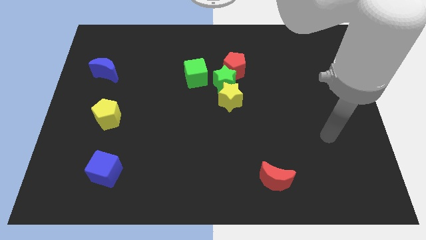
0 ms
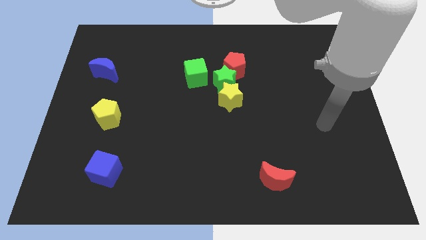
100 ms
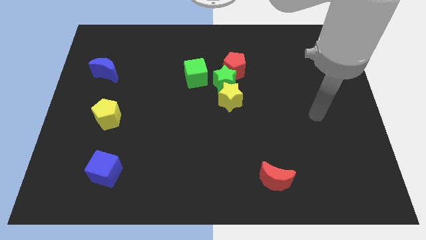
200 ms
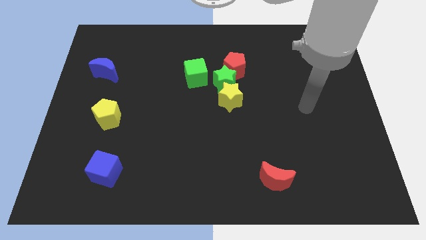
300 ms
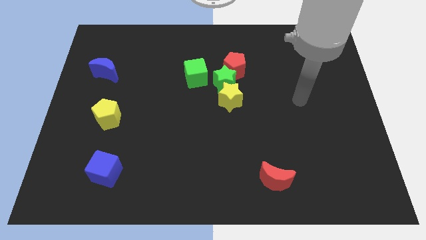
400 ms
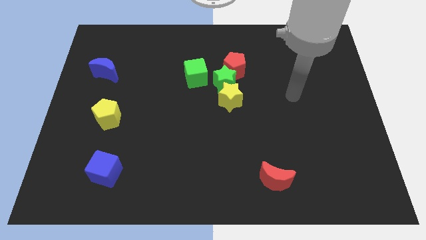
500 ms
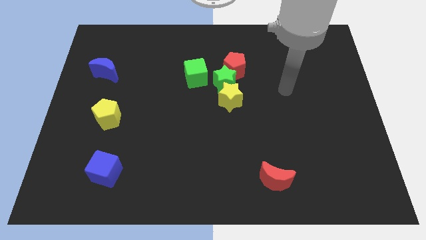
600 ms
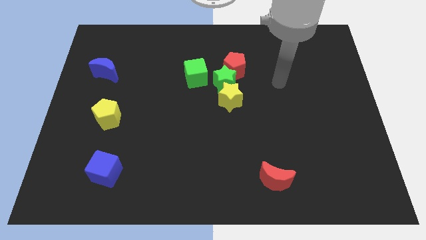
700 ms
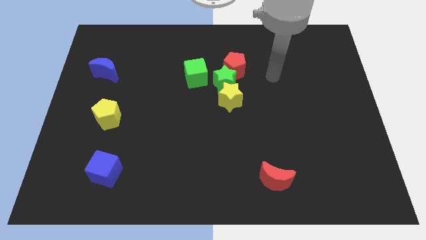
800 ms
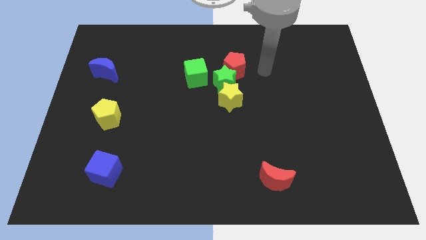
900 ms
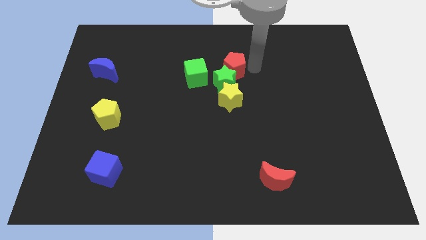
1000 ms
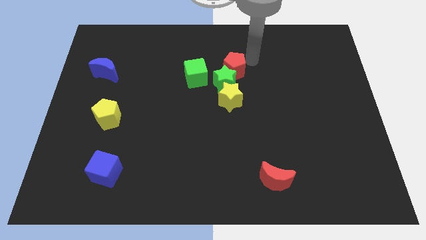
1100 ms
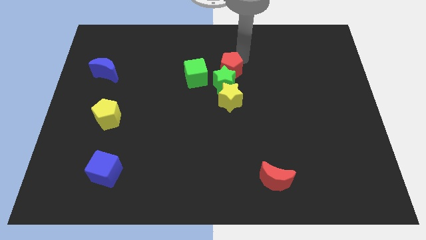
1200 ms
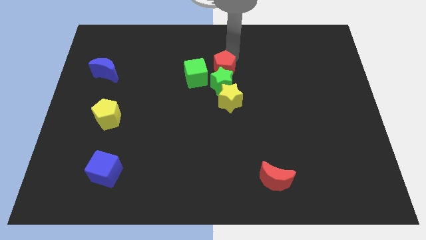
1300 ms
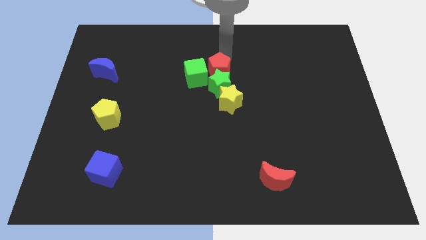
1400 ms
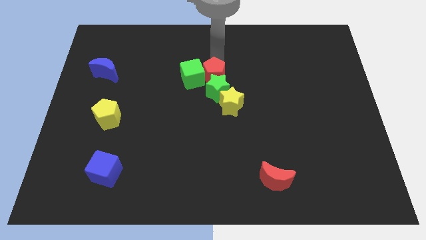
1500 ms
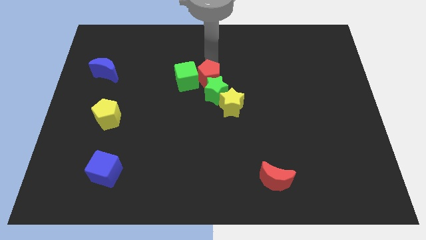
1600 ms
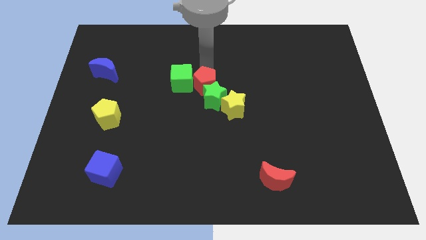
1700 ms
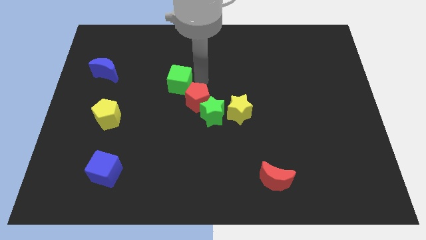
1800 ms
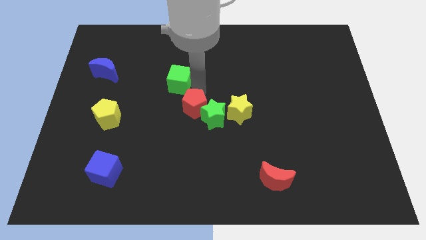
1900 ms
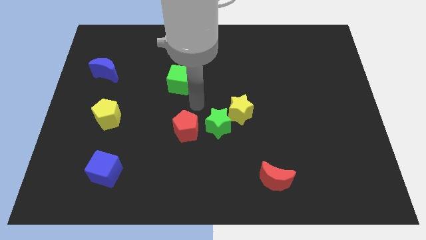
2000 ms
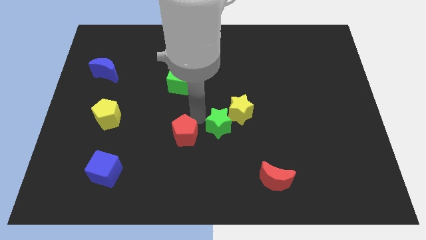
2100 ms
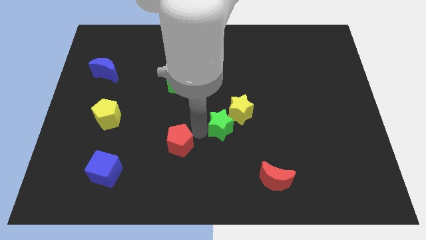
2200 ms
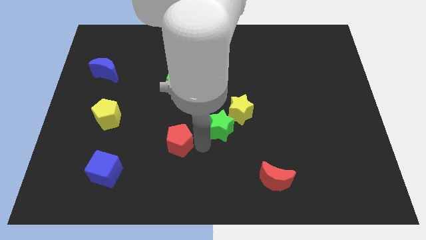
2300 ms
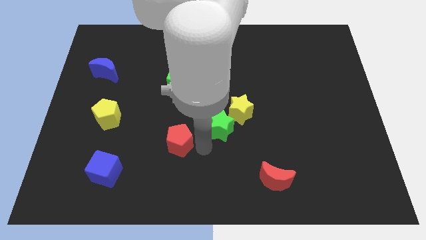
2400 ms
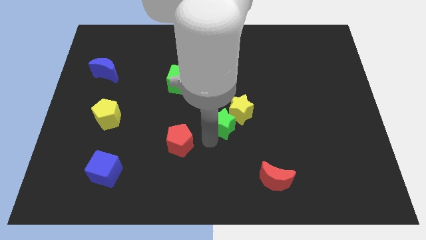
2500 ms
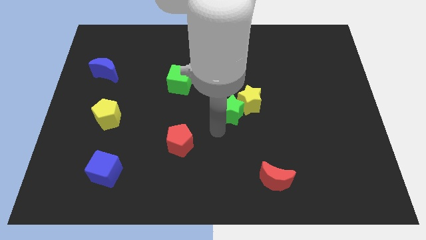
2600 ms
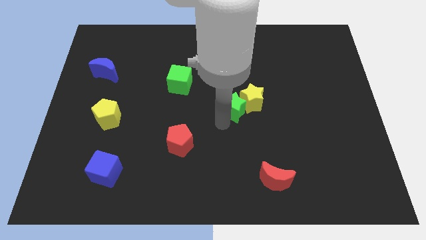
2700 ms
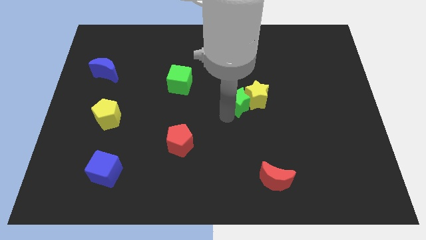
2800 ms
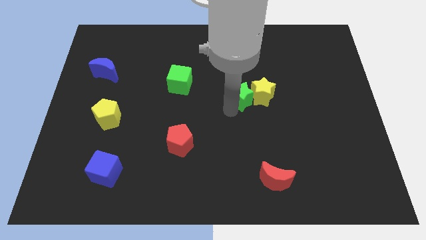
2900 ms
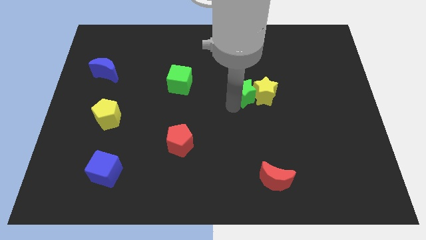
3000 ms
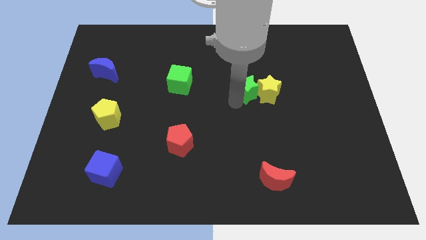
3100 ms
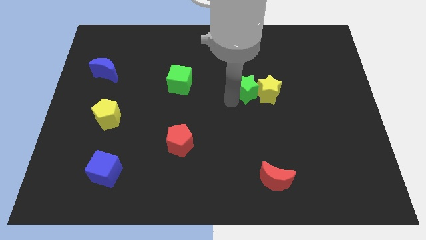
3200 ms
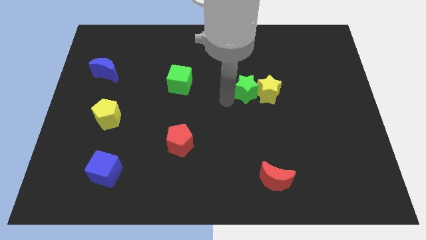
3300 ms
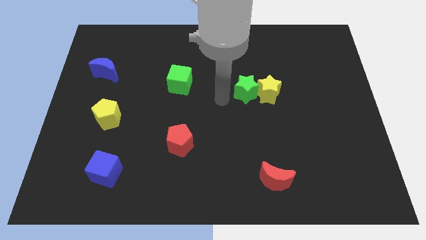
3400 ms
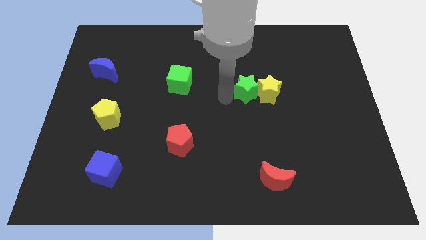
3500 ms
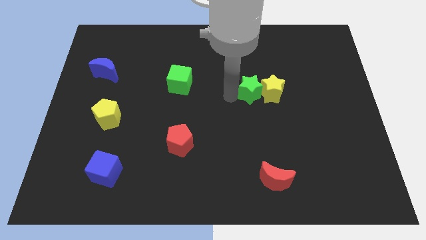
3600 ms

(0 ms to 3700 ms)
move the green star away from the yellow star, red pentagon, and green cube

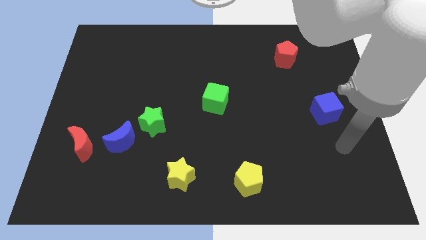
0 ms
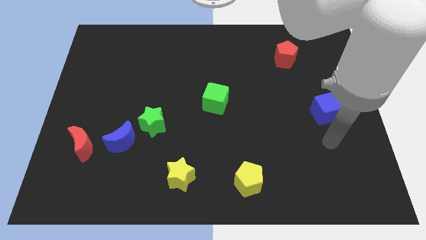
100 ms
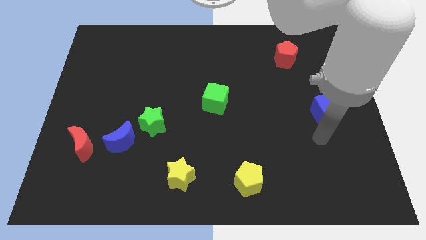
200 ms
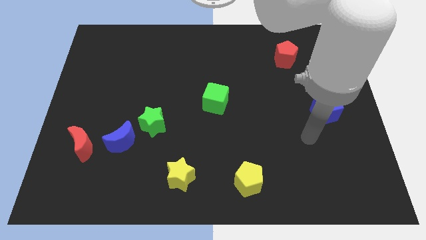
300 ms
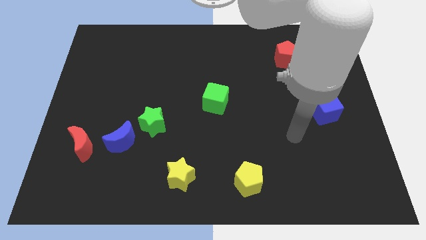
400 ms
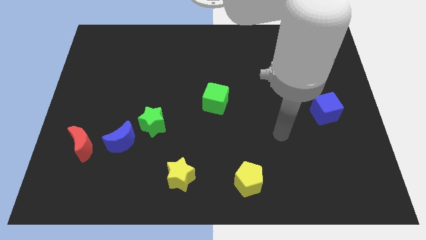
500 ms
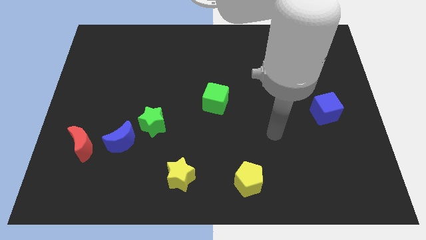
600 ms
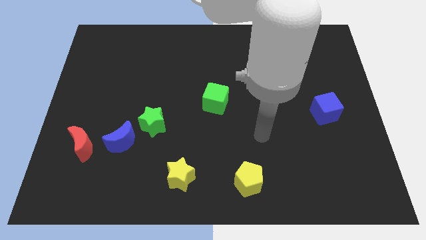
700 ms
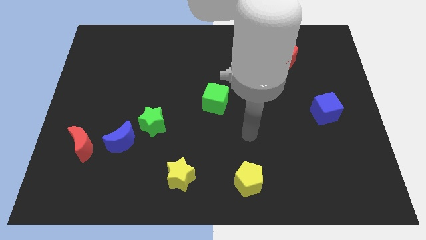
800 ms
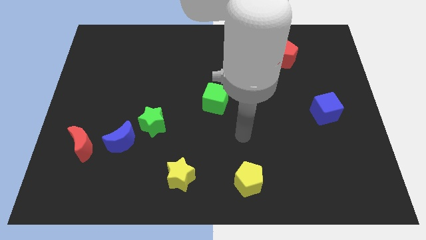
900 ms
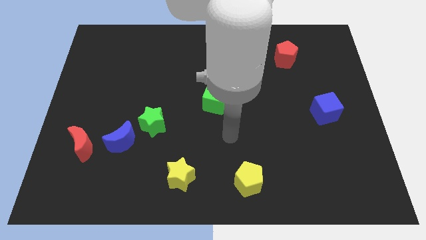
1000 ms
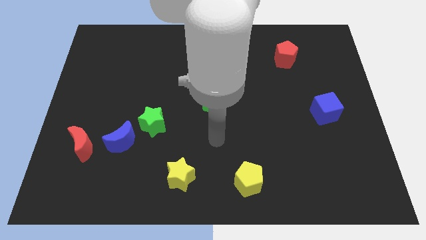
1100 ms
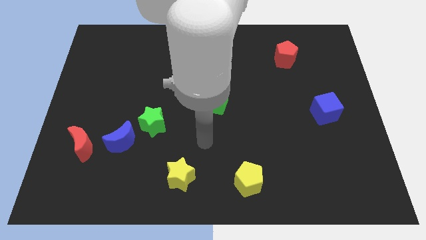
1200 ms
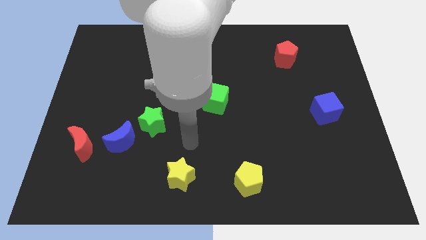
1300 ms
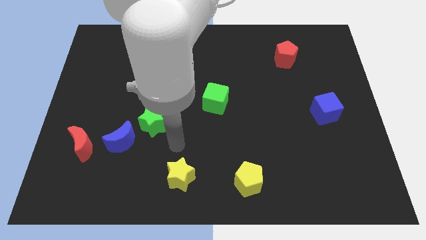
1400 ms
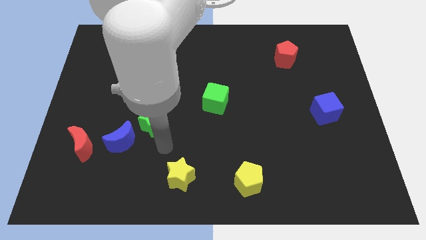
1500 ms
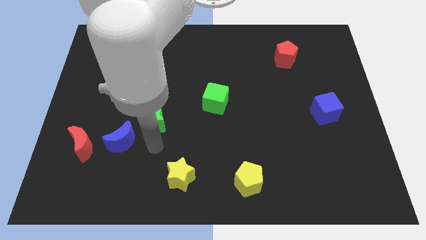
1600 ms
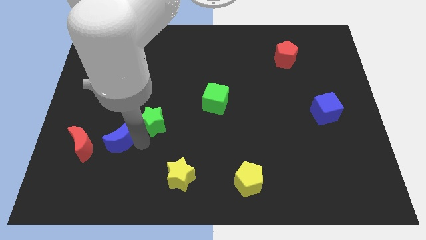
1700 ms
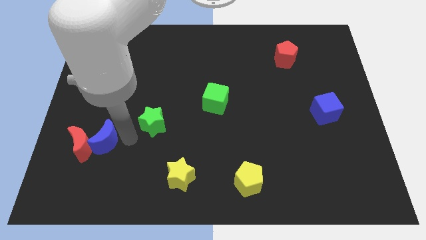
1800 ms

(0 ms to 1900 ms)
move the green star away from the blue moon

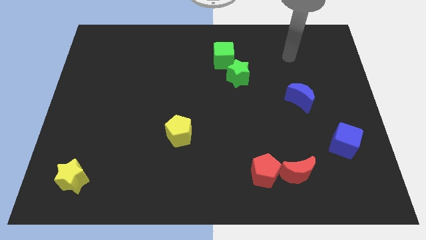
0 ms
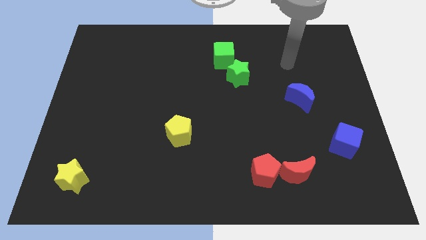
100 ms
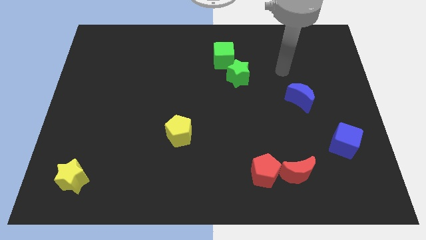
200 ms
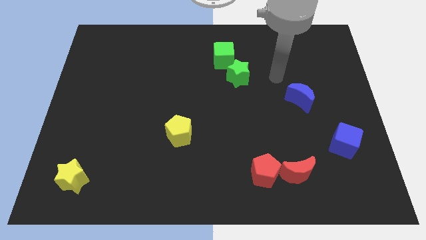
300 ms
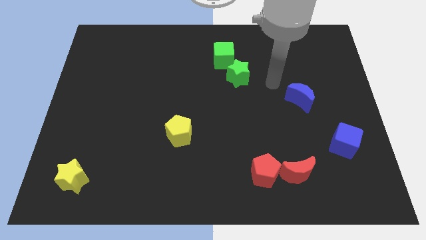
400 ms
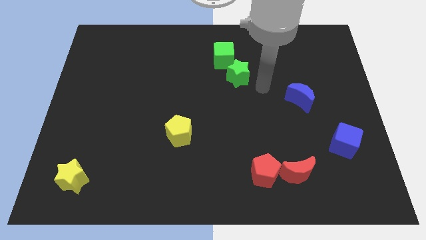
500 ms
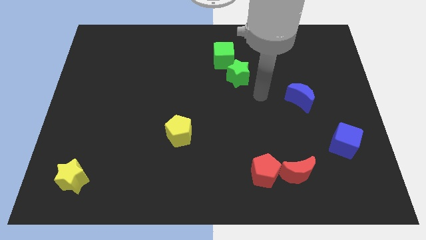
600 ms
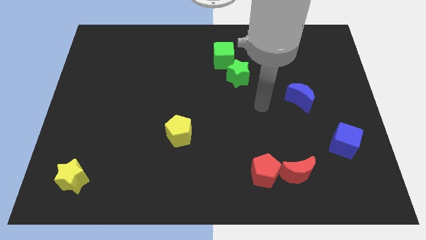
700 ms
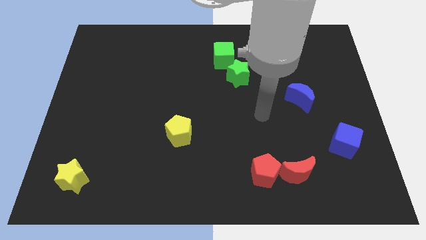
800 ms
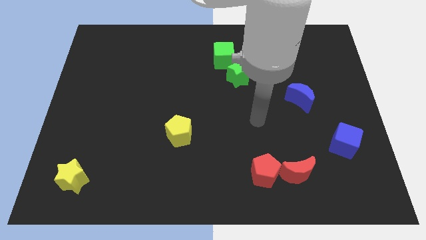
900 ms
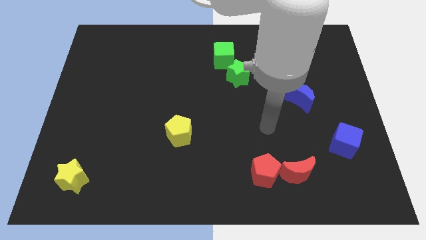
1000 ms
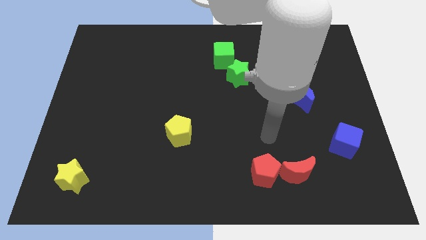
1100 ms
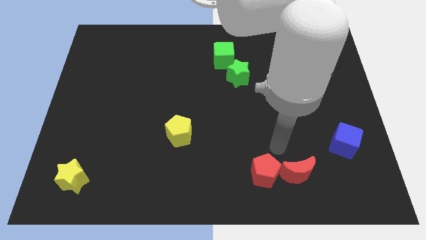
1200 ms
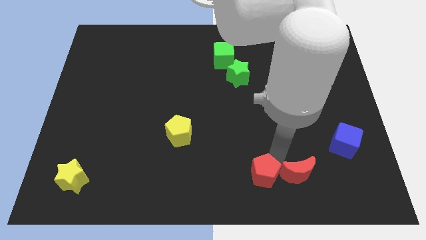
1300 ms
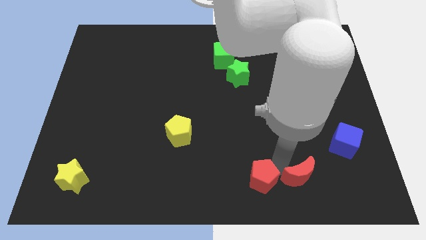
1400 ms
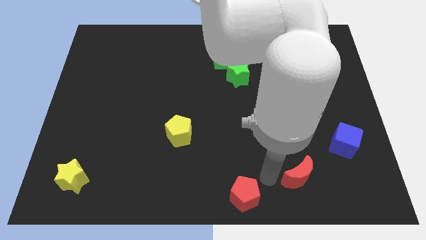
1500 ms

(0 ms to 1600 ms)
pull the red moon apart from the red pentagon

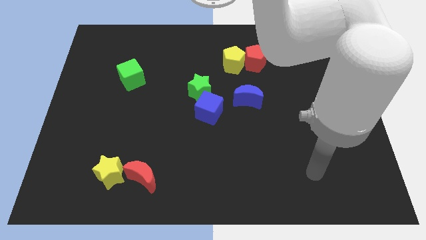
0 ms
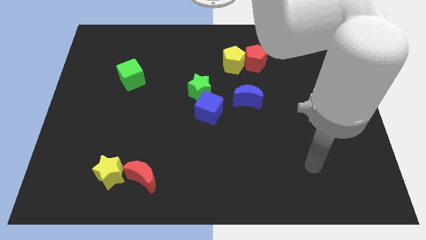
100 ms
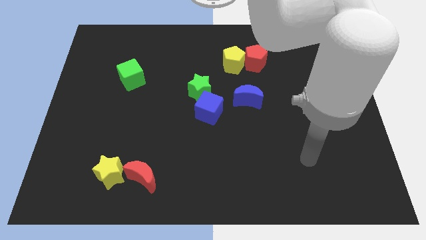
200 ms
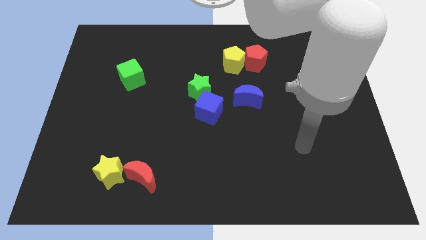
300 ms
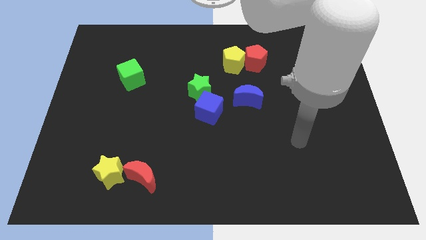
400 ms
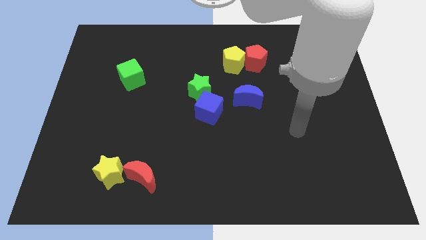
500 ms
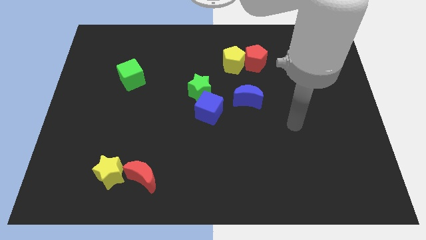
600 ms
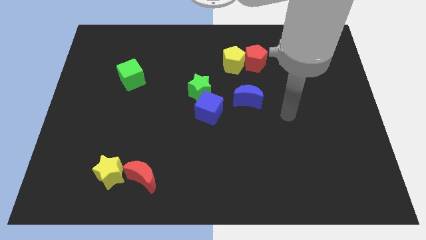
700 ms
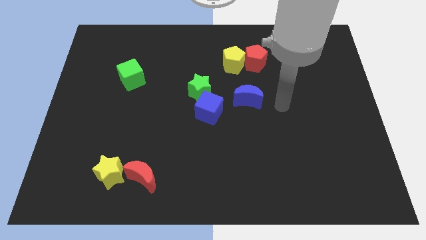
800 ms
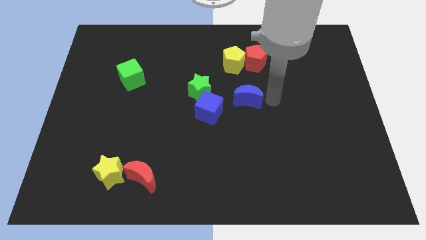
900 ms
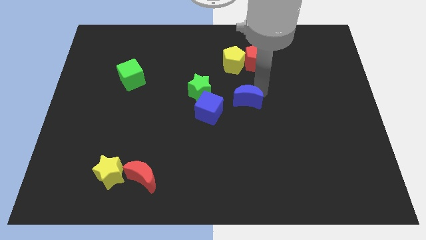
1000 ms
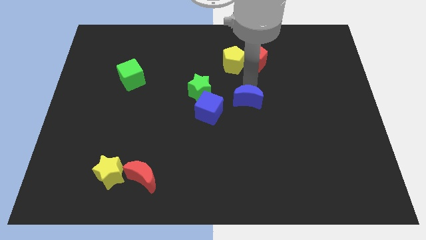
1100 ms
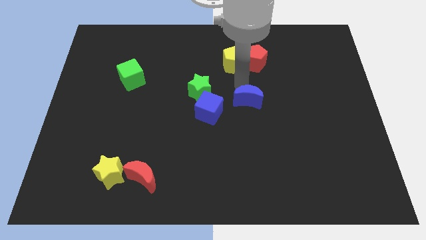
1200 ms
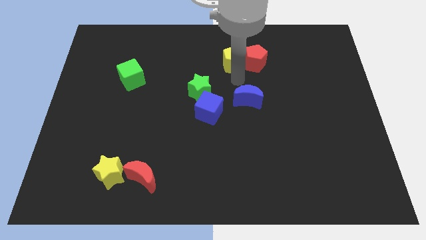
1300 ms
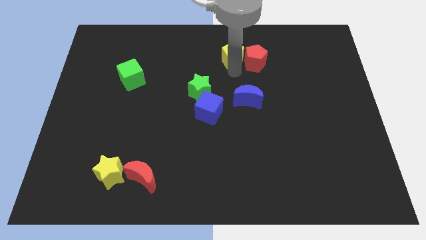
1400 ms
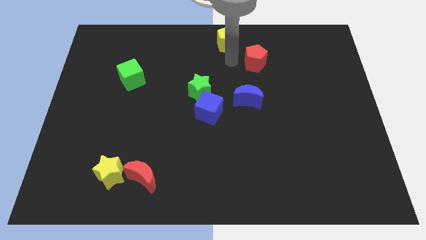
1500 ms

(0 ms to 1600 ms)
move the red pentagon away from the yellow pentagon

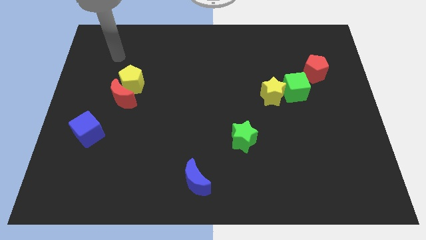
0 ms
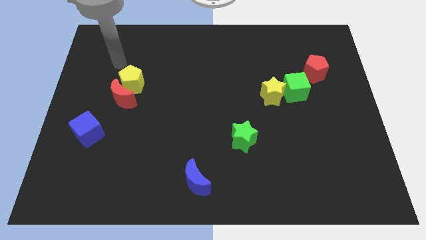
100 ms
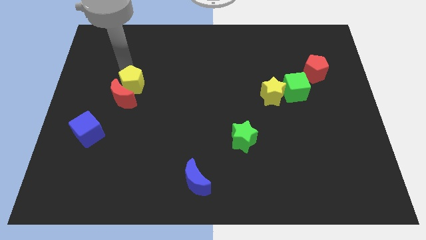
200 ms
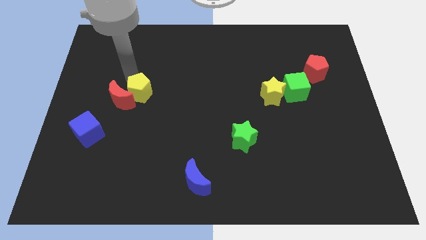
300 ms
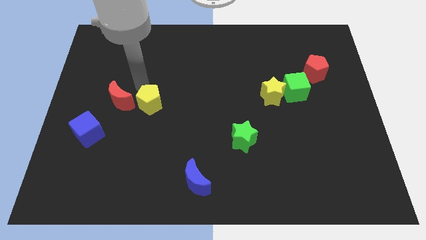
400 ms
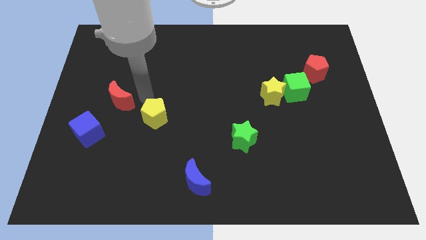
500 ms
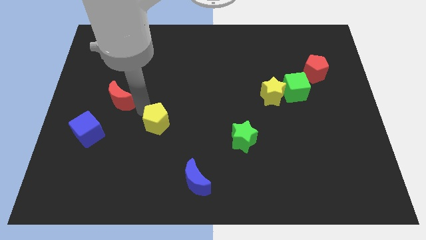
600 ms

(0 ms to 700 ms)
pull the red moon apart from the yellow pentagon
